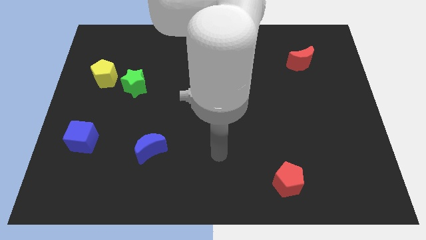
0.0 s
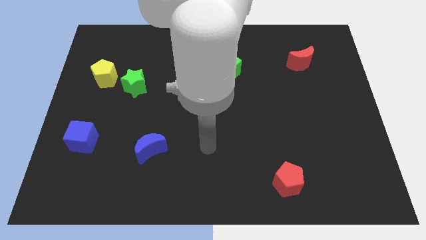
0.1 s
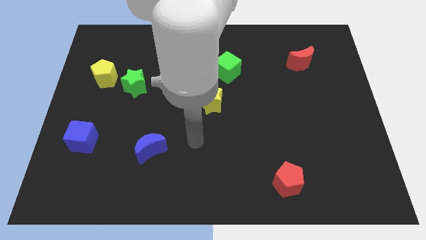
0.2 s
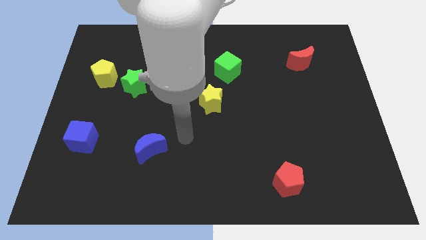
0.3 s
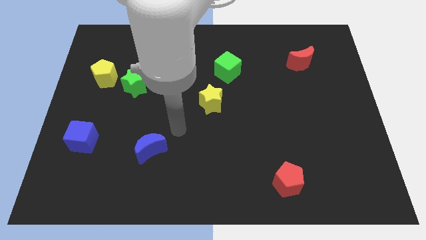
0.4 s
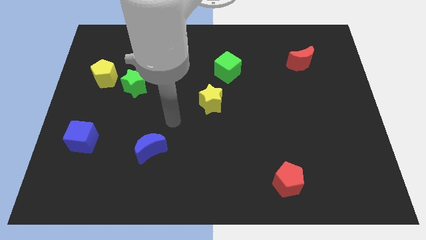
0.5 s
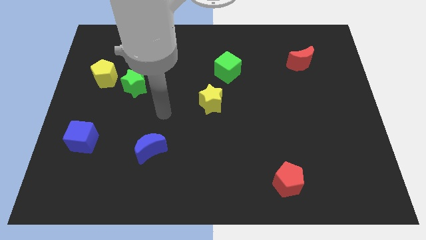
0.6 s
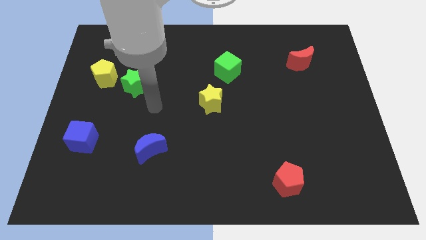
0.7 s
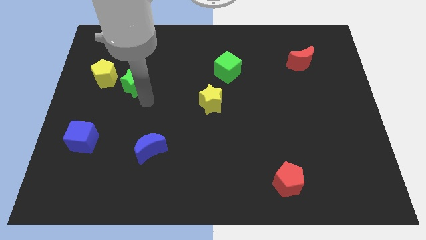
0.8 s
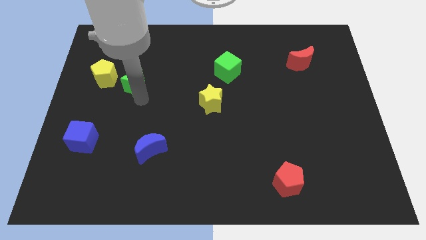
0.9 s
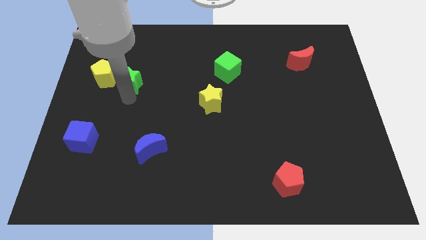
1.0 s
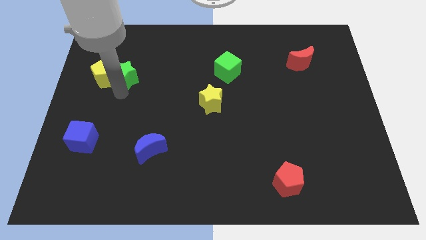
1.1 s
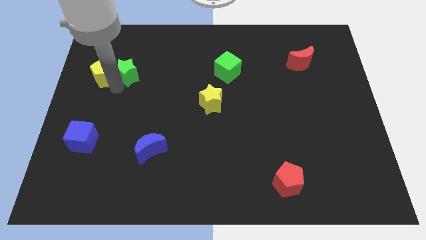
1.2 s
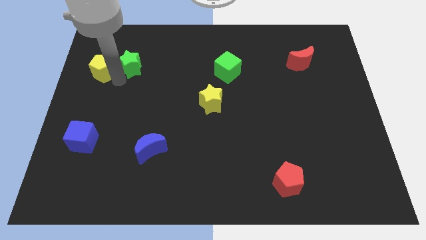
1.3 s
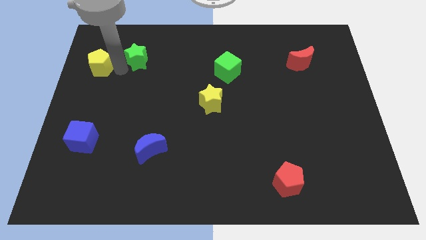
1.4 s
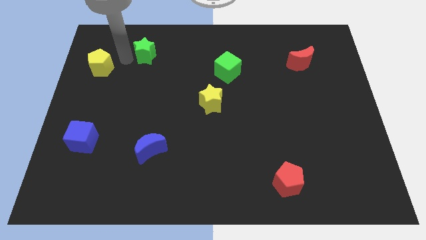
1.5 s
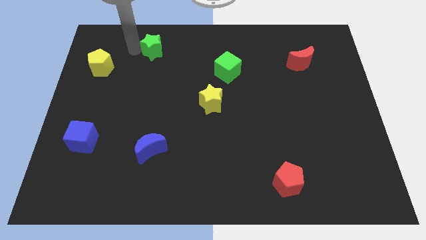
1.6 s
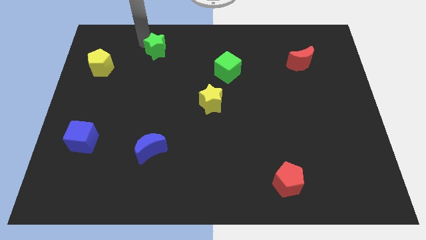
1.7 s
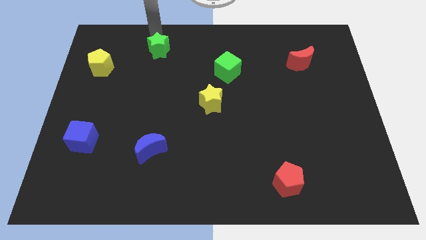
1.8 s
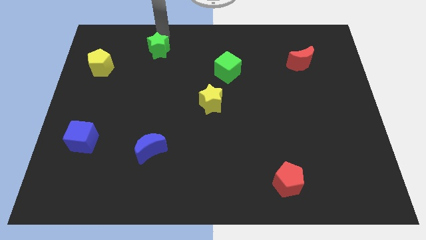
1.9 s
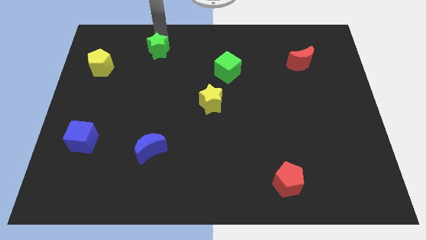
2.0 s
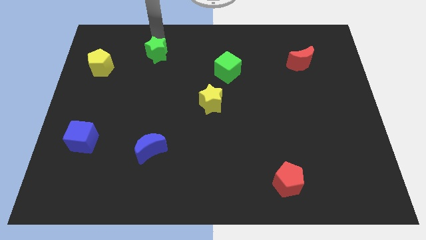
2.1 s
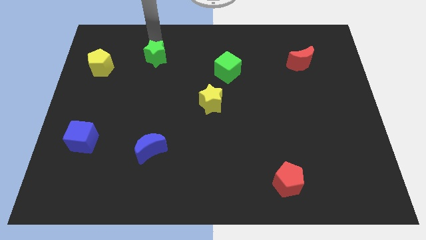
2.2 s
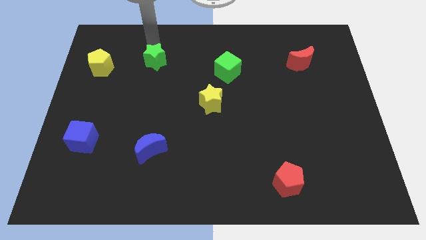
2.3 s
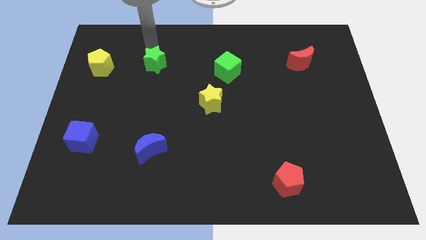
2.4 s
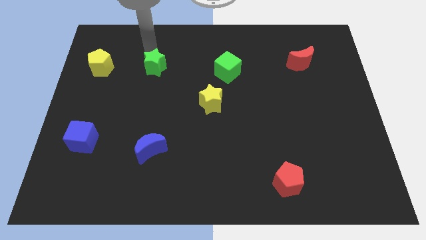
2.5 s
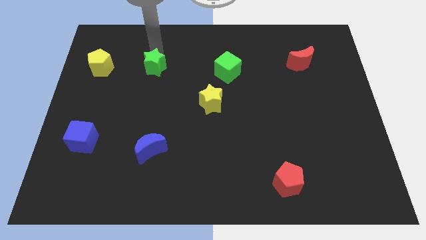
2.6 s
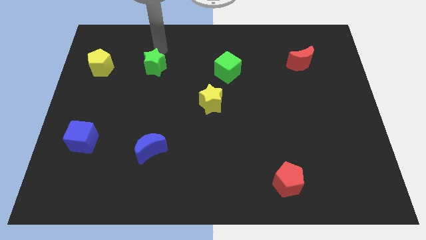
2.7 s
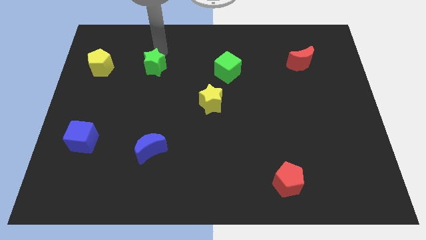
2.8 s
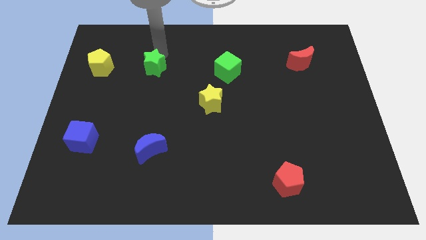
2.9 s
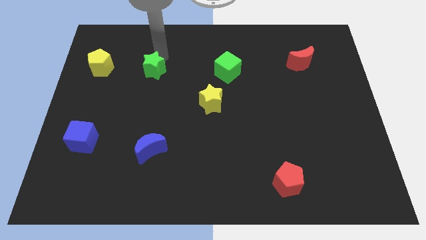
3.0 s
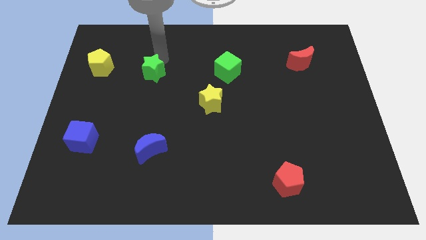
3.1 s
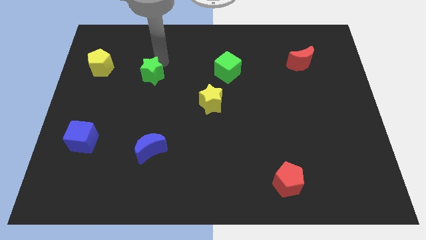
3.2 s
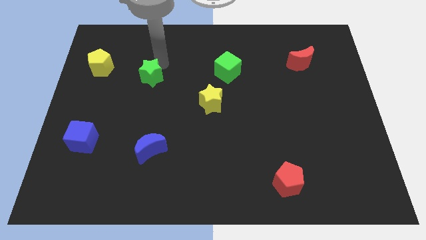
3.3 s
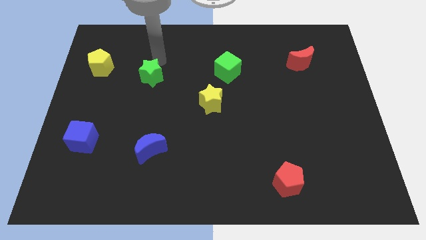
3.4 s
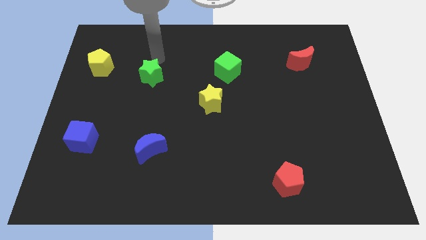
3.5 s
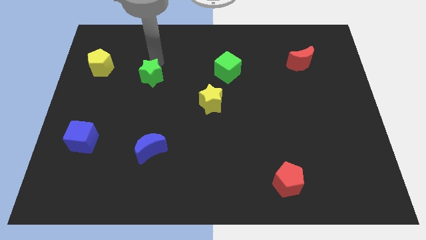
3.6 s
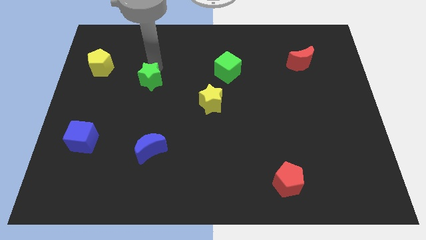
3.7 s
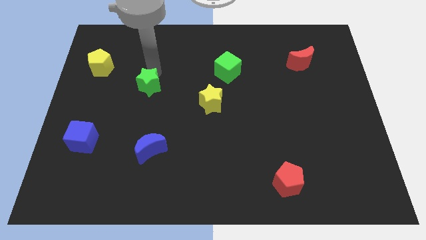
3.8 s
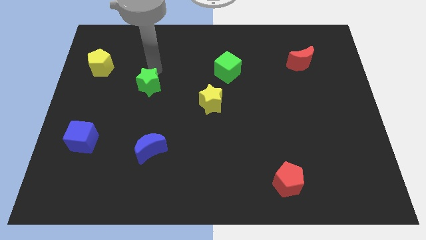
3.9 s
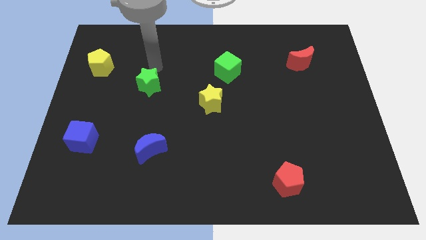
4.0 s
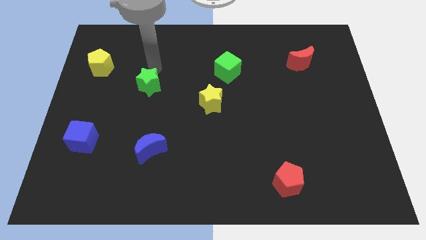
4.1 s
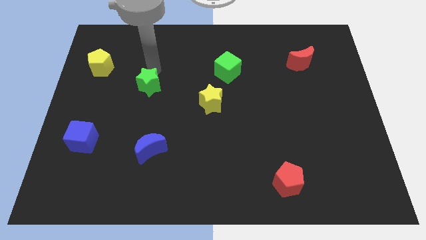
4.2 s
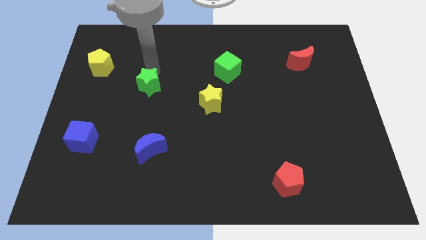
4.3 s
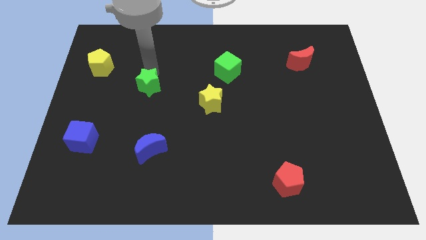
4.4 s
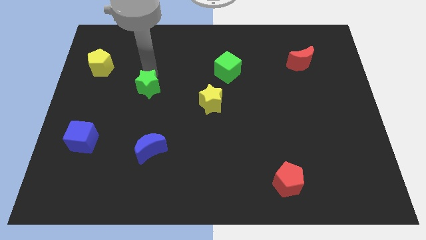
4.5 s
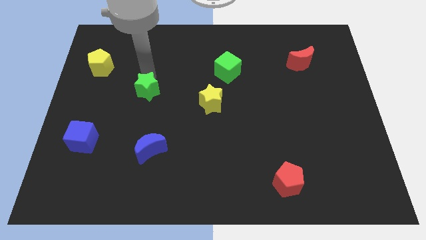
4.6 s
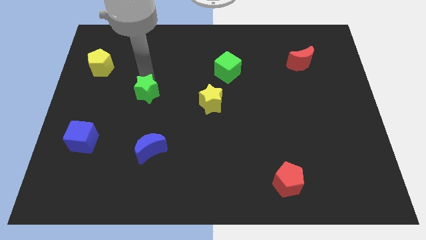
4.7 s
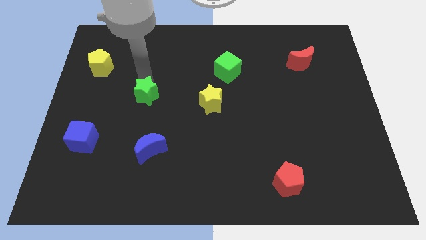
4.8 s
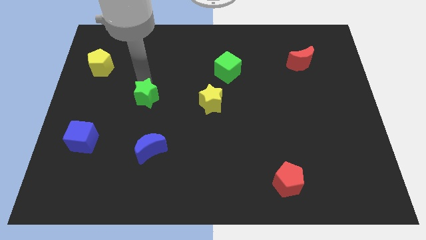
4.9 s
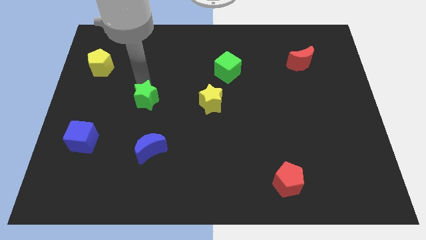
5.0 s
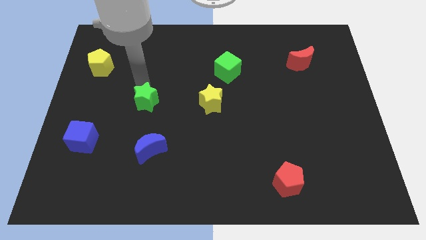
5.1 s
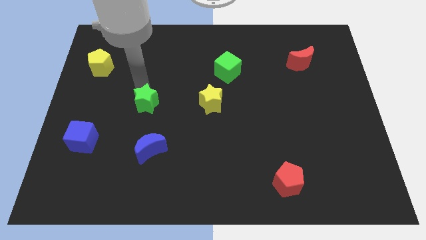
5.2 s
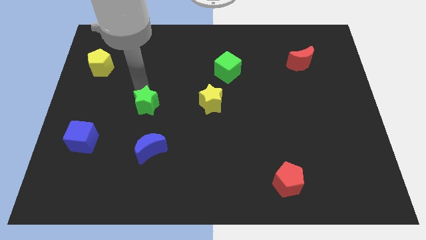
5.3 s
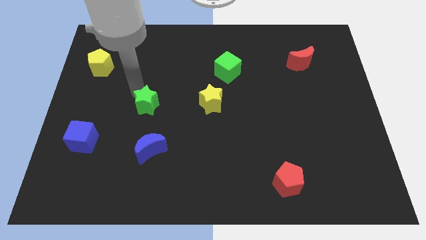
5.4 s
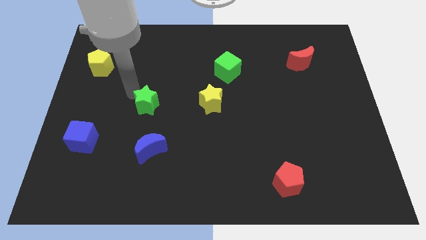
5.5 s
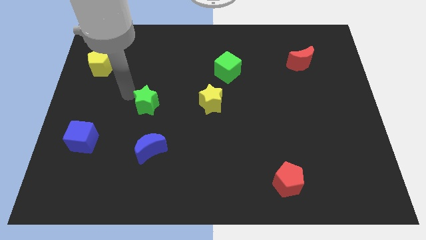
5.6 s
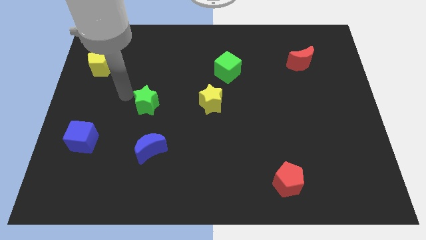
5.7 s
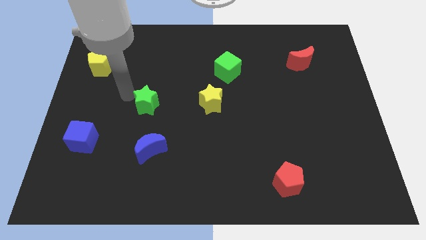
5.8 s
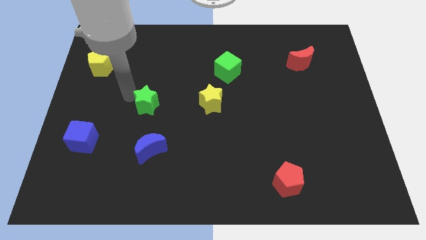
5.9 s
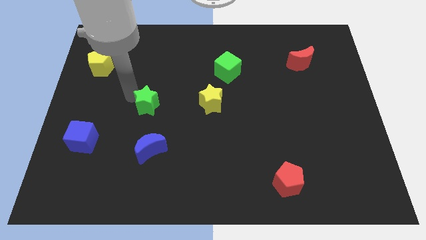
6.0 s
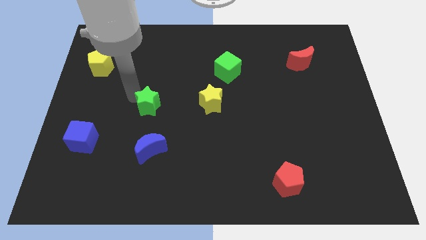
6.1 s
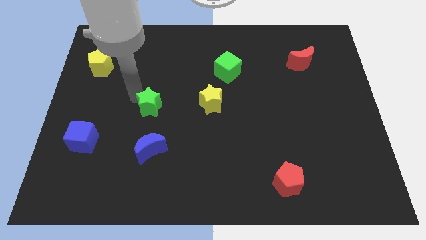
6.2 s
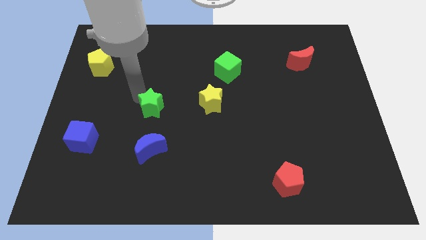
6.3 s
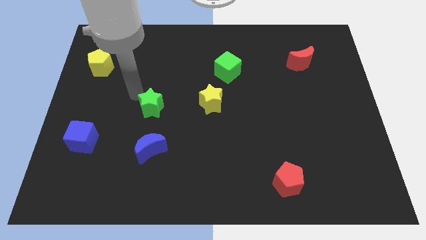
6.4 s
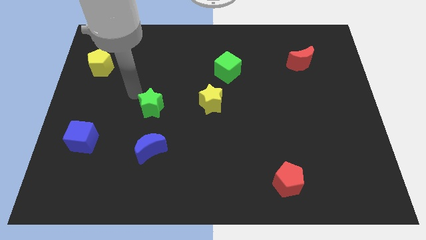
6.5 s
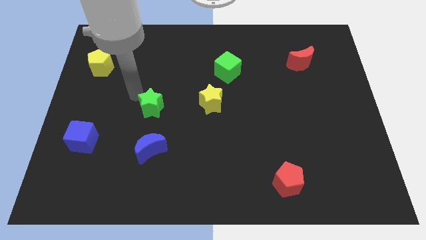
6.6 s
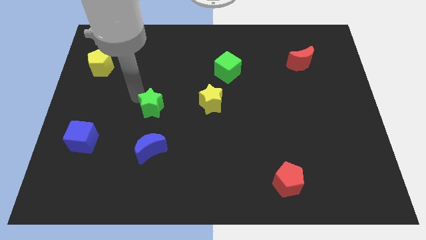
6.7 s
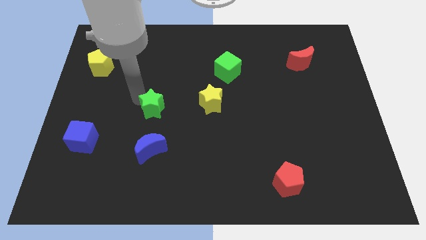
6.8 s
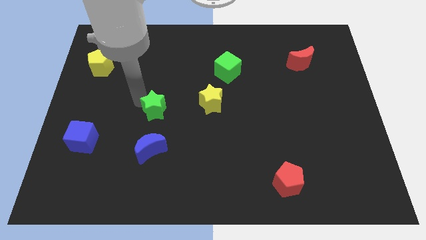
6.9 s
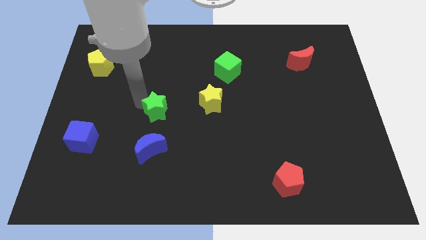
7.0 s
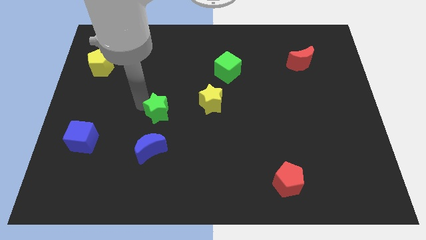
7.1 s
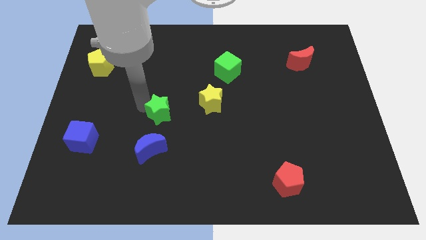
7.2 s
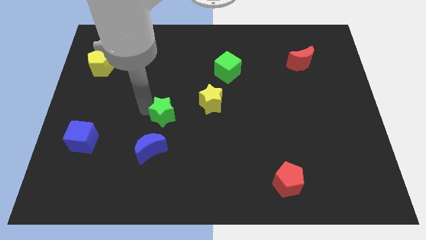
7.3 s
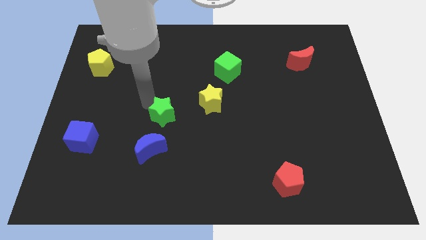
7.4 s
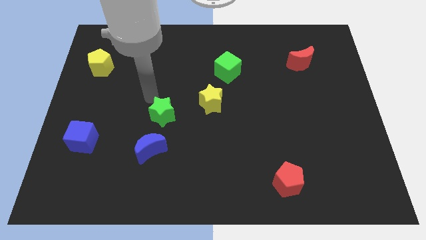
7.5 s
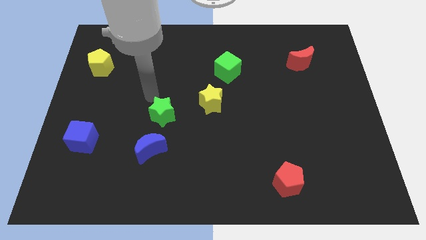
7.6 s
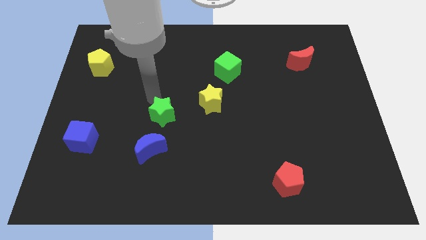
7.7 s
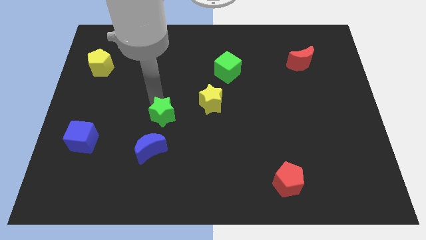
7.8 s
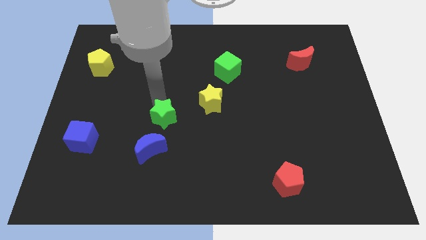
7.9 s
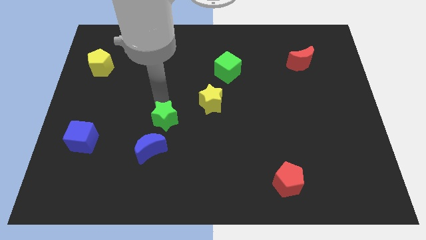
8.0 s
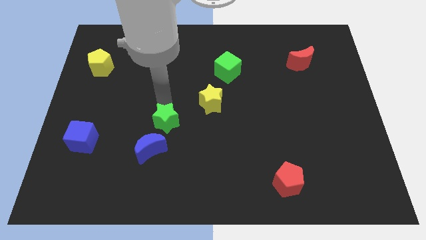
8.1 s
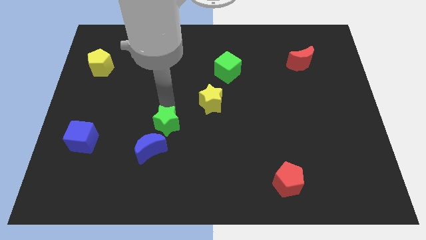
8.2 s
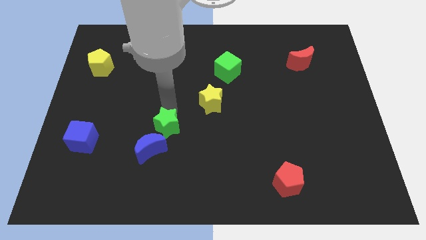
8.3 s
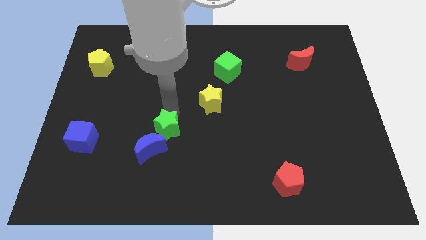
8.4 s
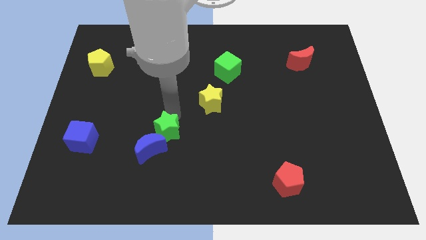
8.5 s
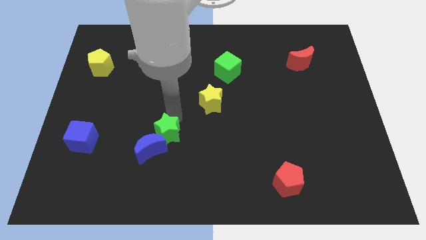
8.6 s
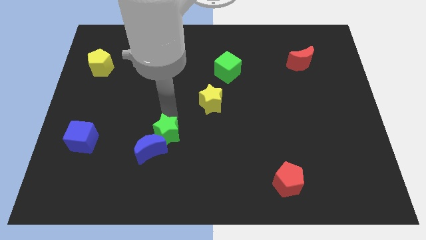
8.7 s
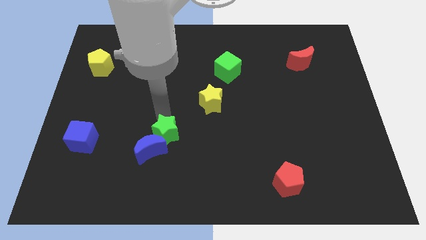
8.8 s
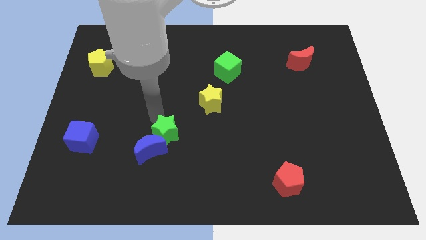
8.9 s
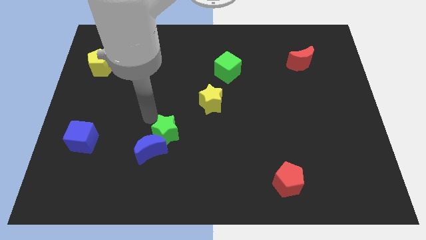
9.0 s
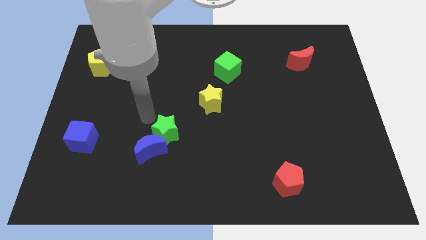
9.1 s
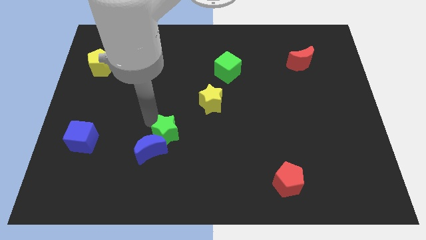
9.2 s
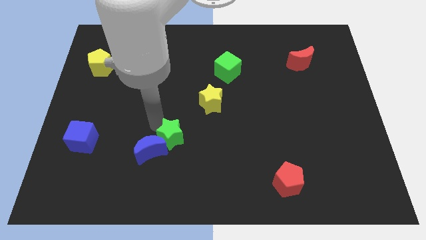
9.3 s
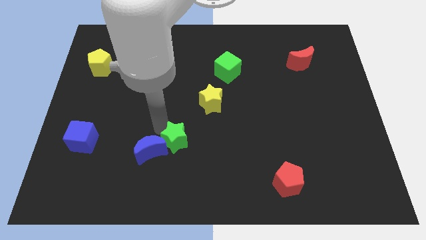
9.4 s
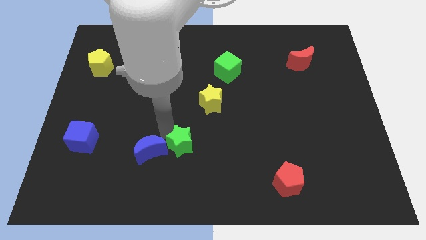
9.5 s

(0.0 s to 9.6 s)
move the green star diagonally downwards and to the right
